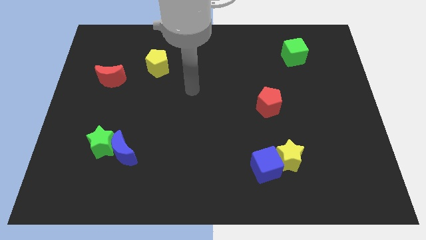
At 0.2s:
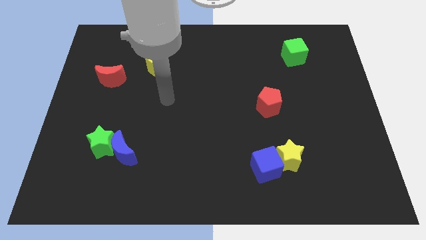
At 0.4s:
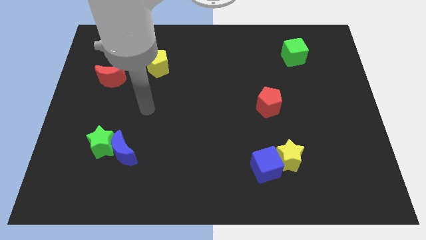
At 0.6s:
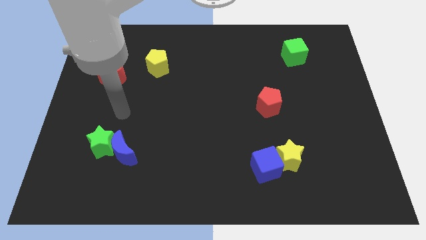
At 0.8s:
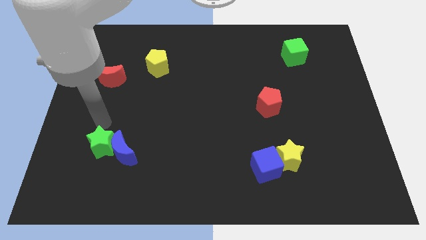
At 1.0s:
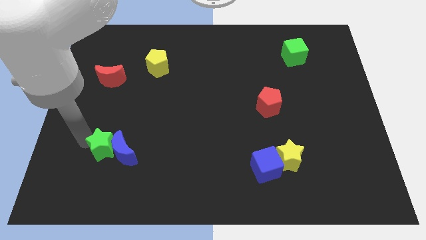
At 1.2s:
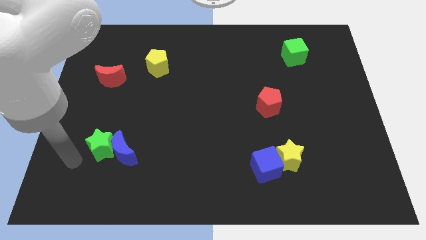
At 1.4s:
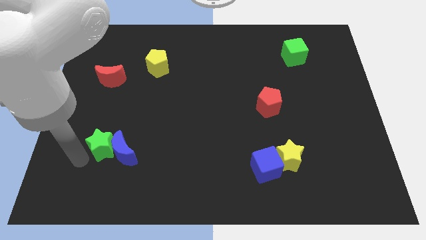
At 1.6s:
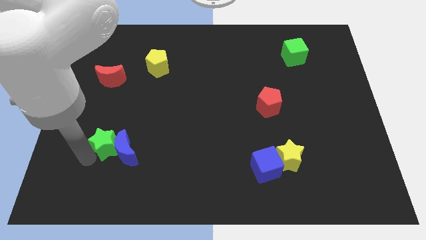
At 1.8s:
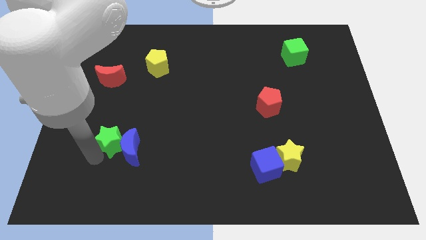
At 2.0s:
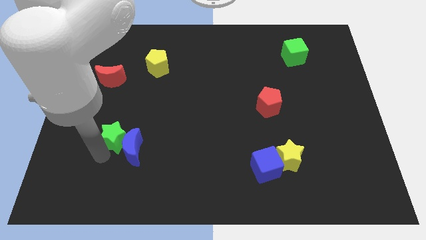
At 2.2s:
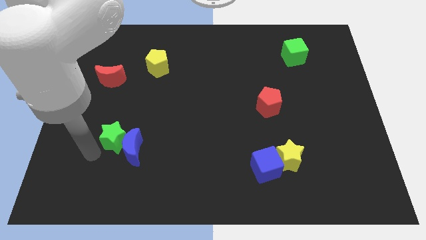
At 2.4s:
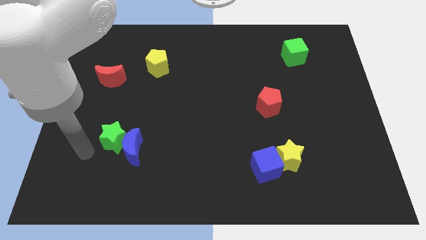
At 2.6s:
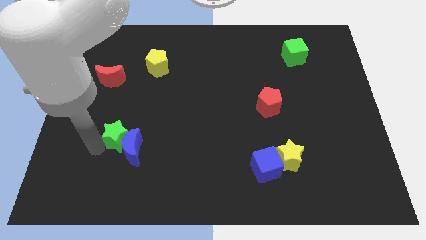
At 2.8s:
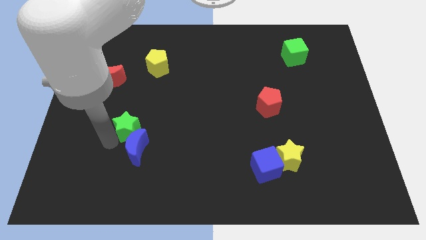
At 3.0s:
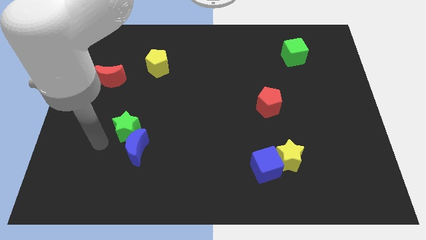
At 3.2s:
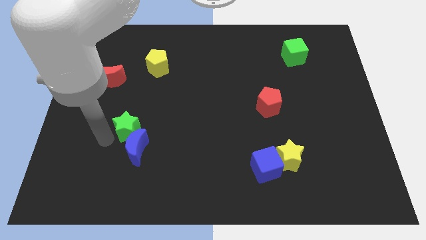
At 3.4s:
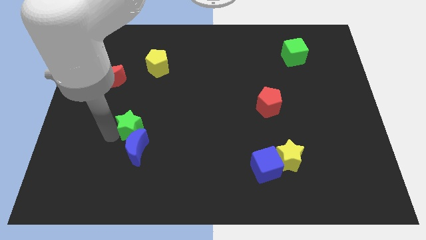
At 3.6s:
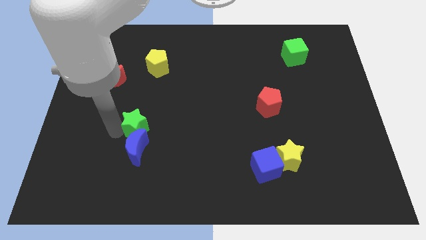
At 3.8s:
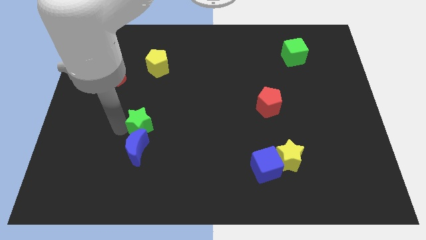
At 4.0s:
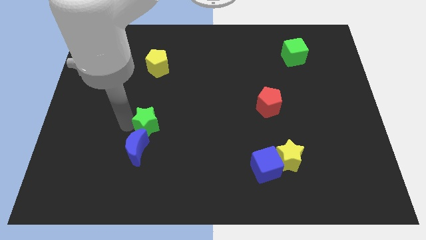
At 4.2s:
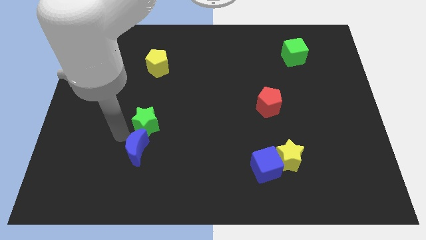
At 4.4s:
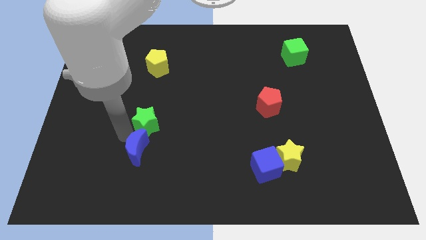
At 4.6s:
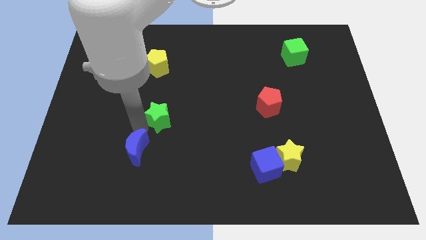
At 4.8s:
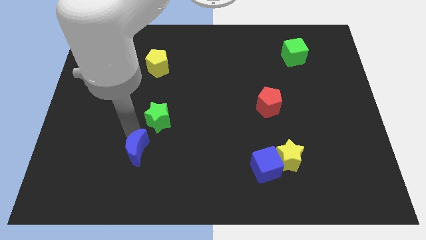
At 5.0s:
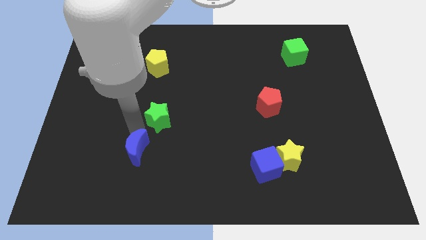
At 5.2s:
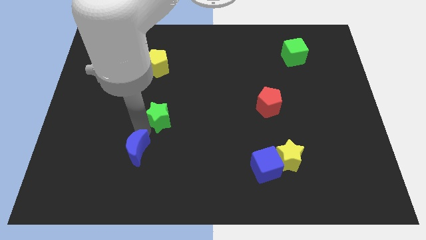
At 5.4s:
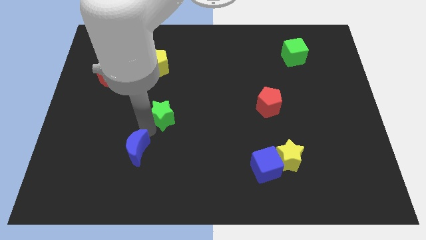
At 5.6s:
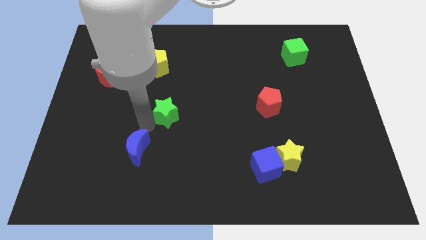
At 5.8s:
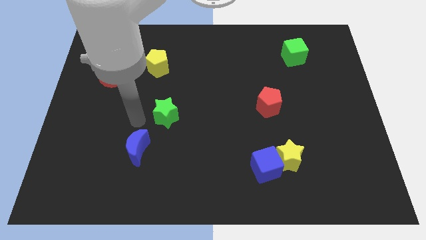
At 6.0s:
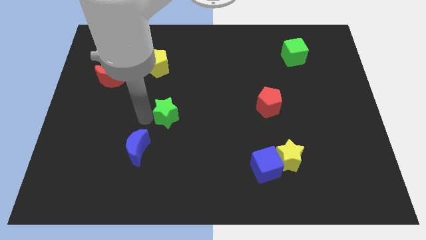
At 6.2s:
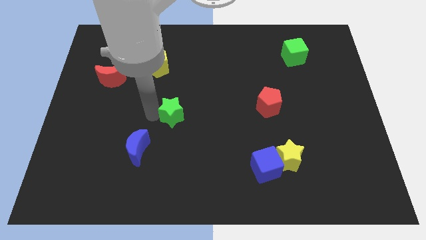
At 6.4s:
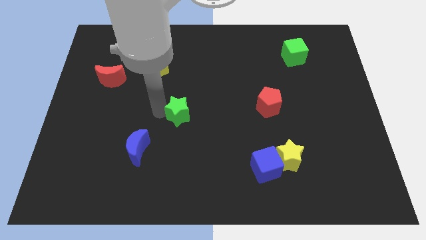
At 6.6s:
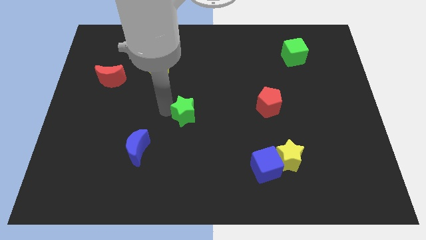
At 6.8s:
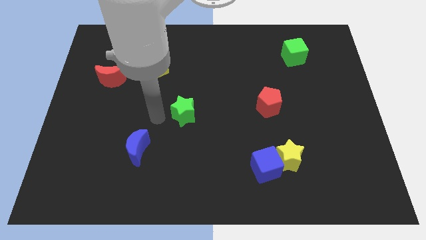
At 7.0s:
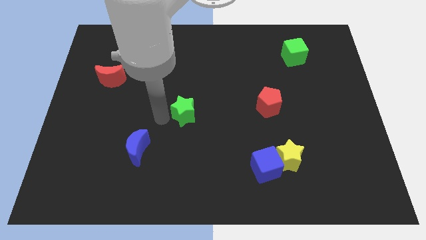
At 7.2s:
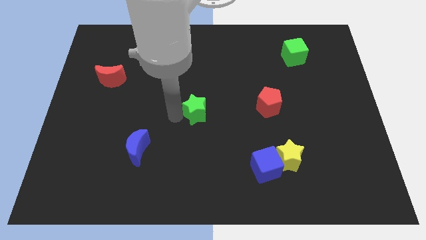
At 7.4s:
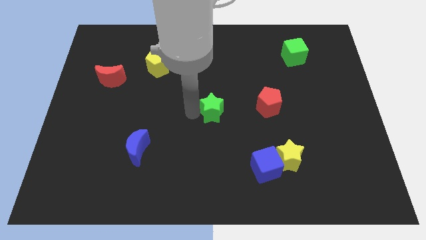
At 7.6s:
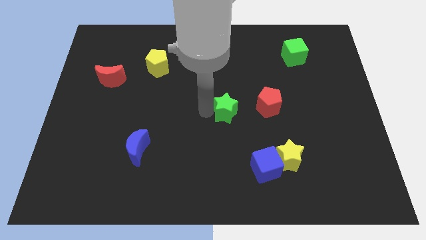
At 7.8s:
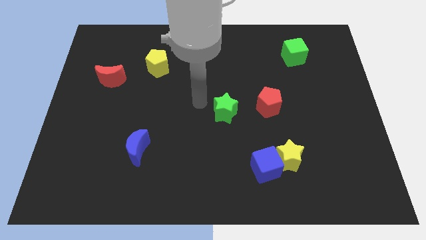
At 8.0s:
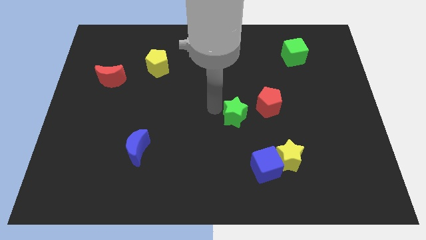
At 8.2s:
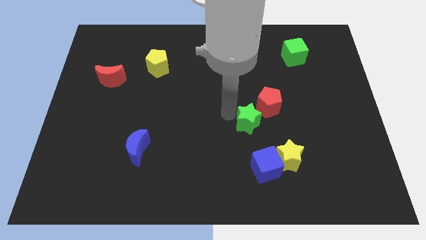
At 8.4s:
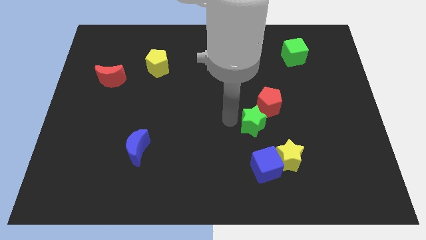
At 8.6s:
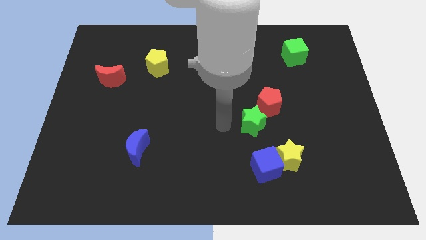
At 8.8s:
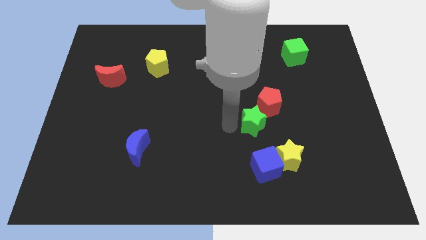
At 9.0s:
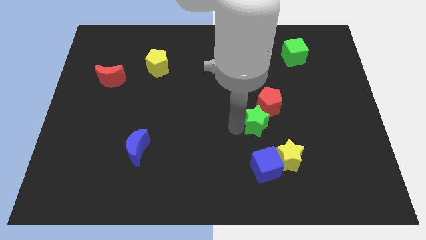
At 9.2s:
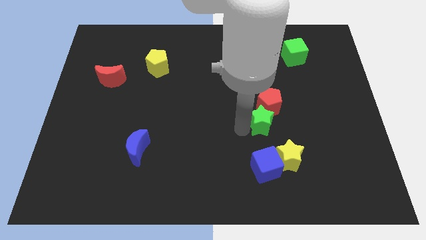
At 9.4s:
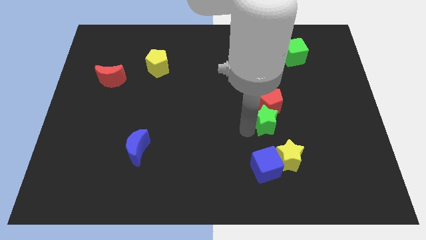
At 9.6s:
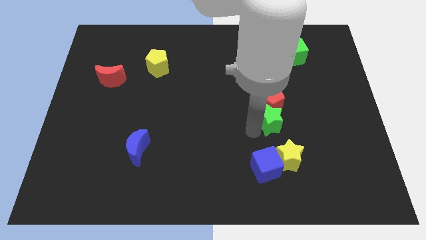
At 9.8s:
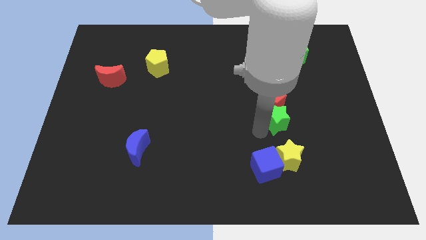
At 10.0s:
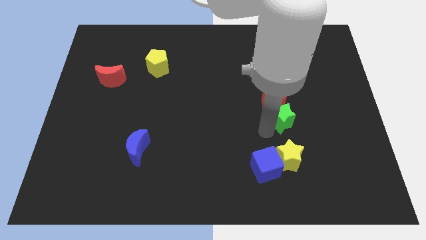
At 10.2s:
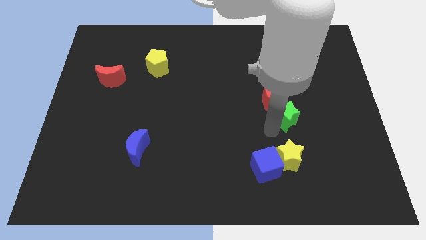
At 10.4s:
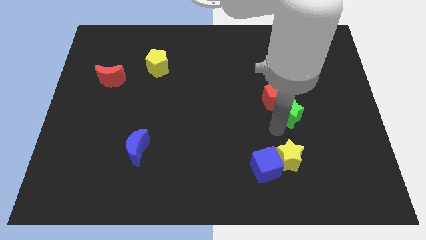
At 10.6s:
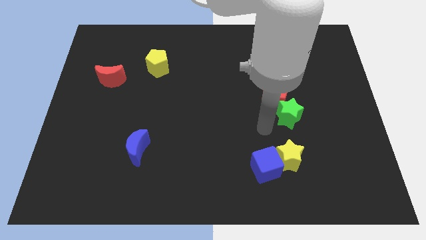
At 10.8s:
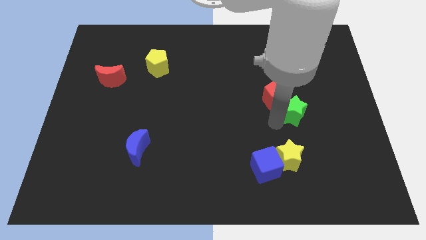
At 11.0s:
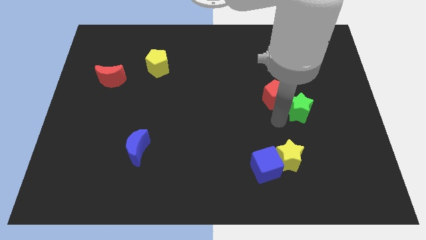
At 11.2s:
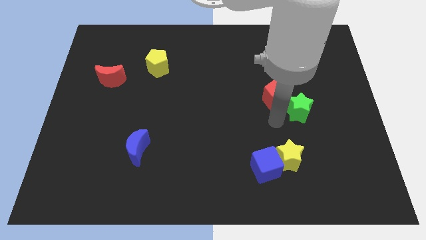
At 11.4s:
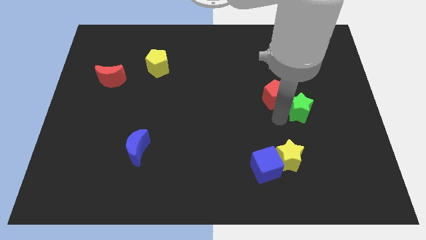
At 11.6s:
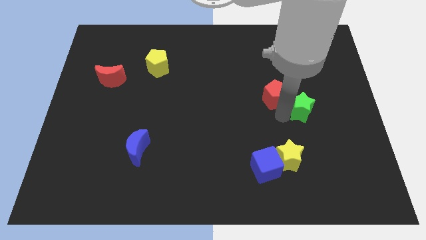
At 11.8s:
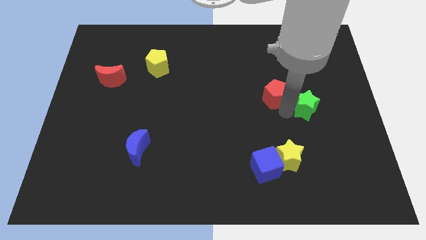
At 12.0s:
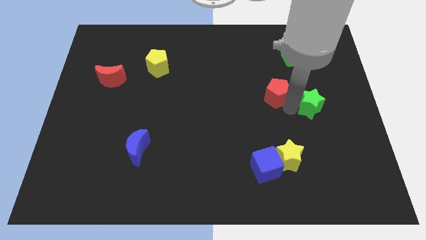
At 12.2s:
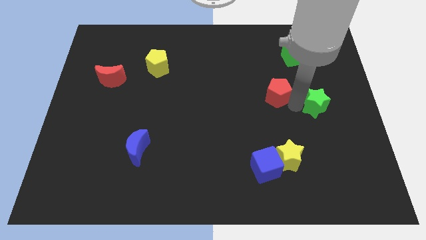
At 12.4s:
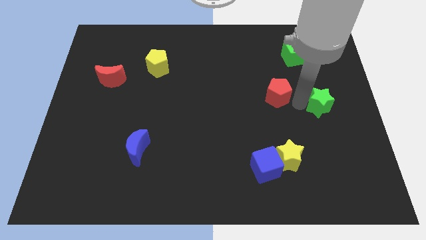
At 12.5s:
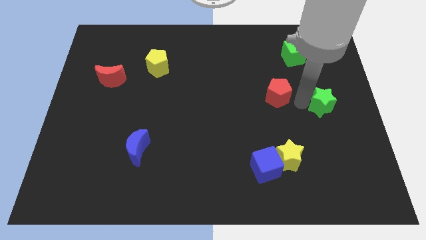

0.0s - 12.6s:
move the green star to the center right

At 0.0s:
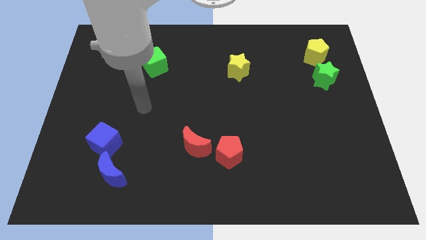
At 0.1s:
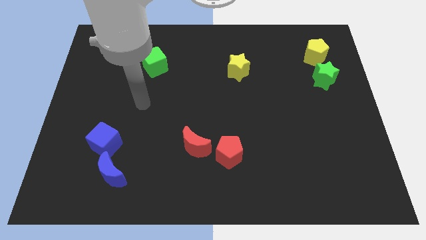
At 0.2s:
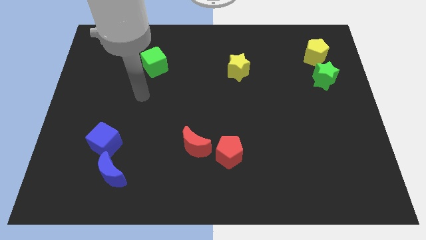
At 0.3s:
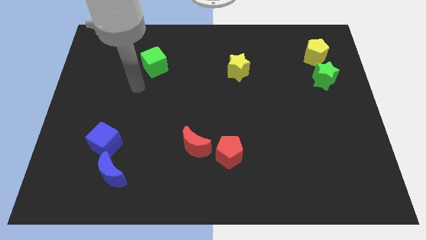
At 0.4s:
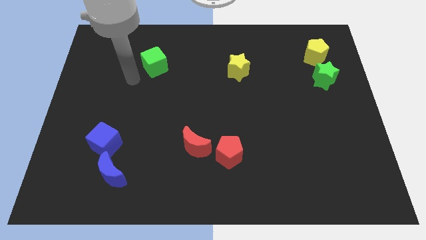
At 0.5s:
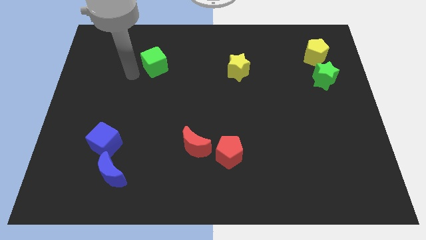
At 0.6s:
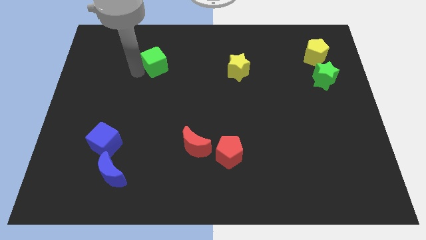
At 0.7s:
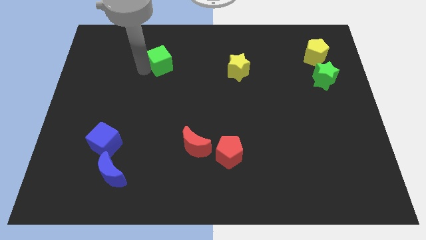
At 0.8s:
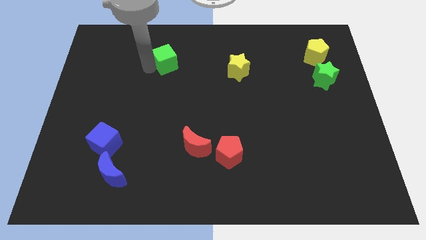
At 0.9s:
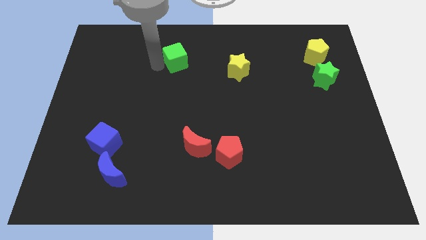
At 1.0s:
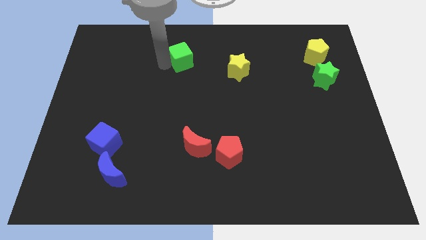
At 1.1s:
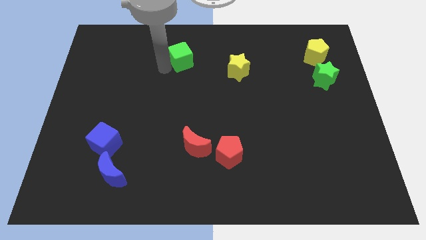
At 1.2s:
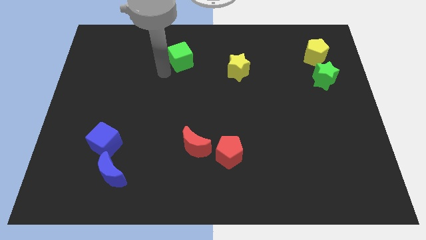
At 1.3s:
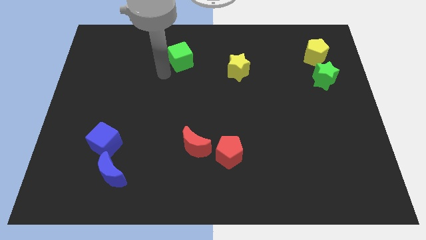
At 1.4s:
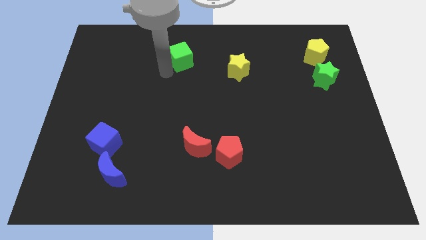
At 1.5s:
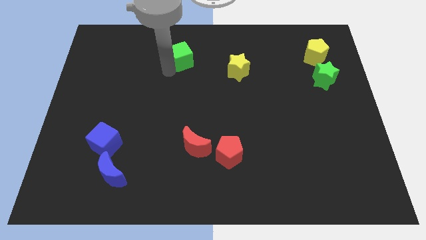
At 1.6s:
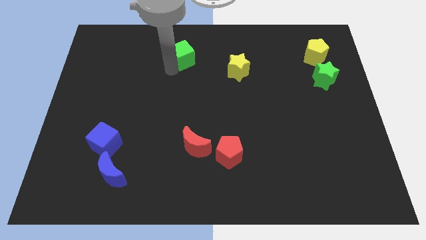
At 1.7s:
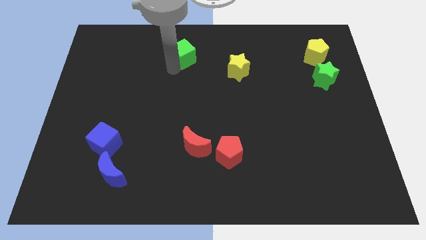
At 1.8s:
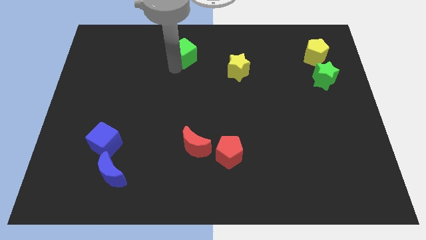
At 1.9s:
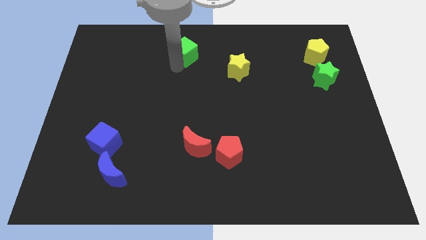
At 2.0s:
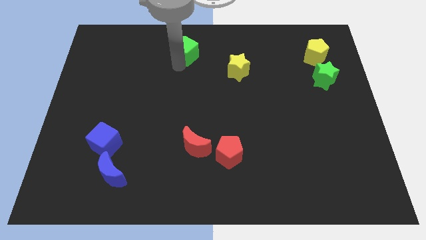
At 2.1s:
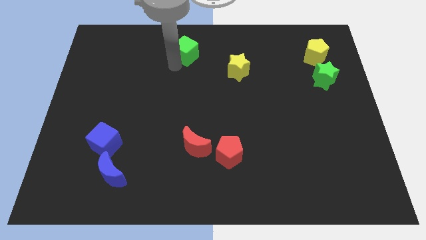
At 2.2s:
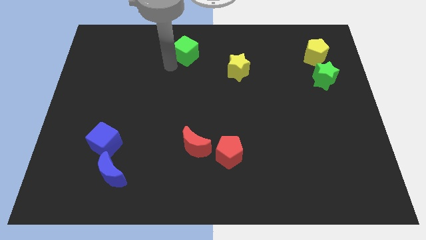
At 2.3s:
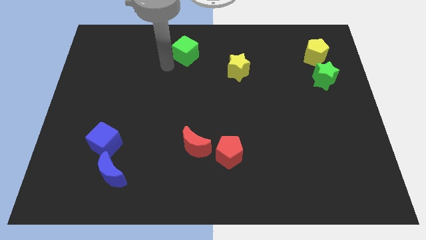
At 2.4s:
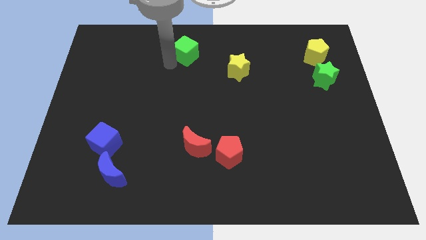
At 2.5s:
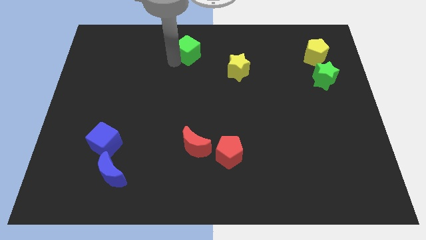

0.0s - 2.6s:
move the green cube to the top
